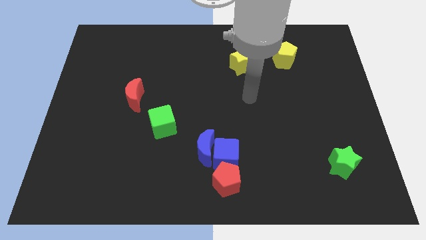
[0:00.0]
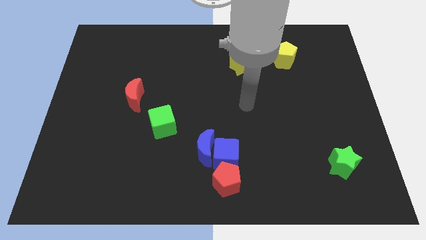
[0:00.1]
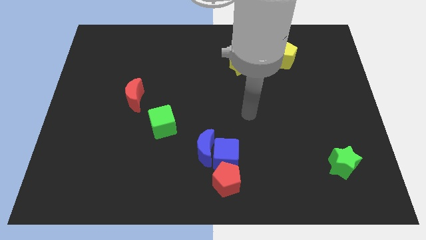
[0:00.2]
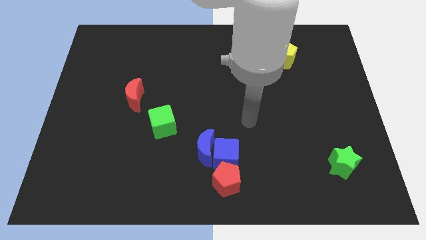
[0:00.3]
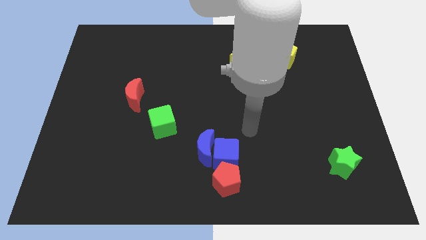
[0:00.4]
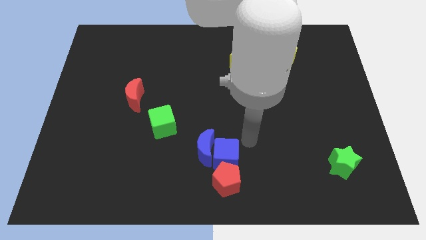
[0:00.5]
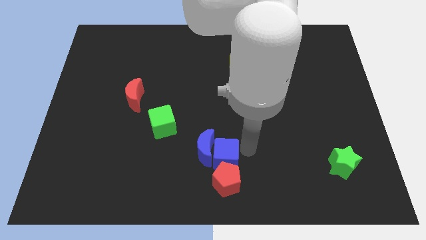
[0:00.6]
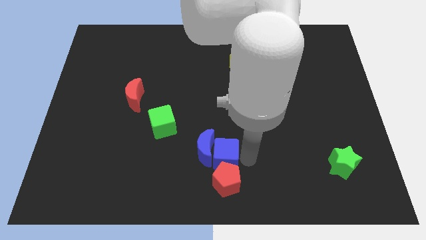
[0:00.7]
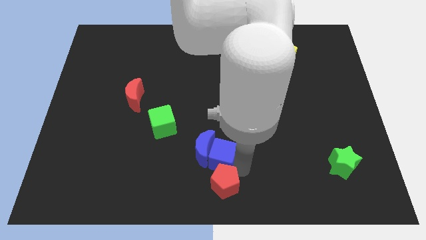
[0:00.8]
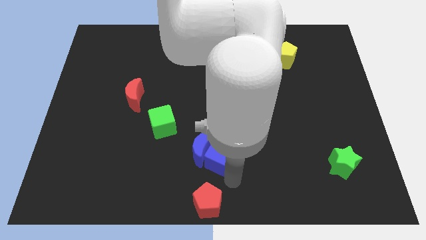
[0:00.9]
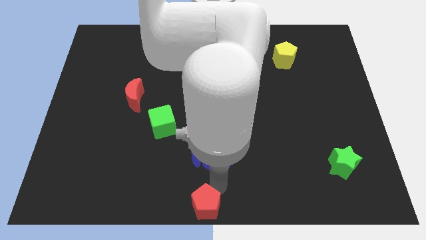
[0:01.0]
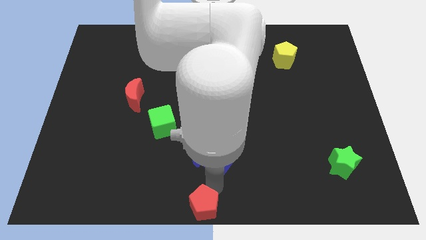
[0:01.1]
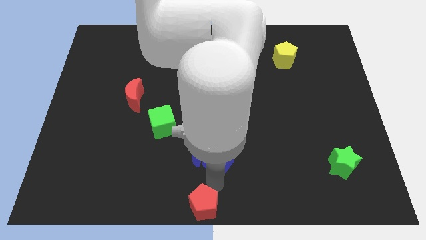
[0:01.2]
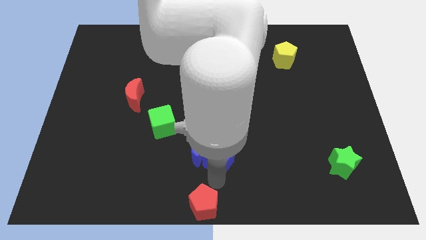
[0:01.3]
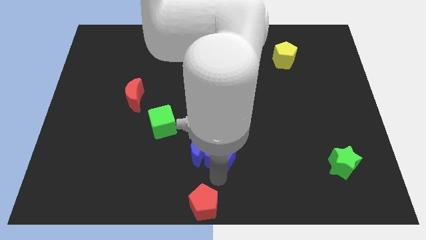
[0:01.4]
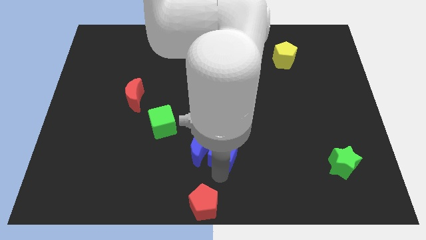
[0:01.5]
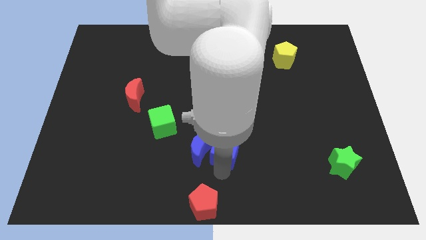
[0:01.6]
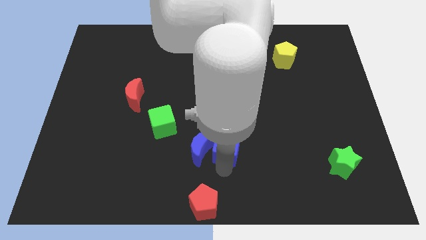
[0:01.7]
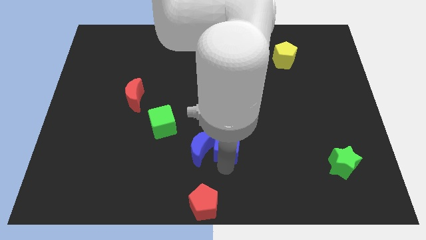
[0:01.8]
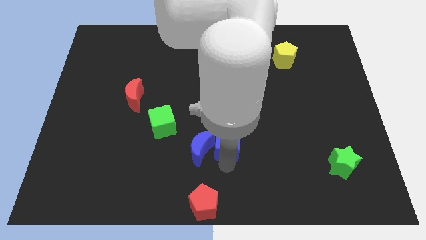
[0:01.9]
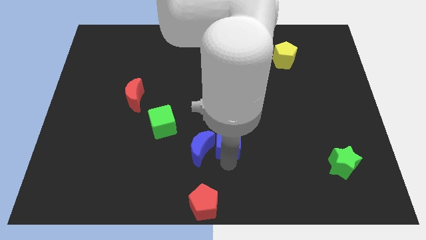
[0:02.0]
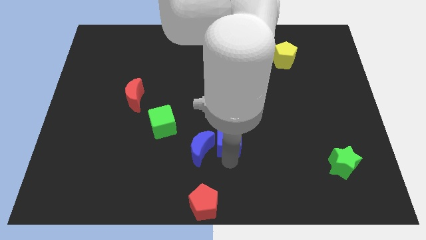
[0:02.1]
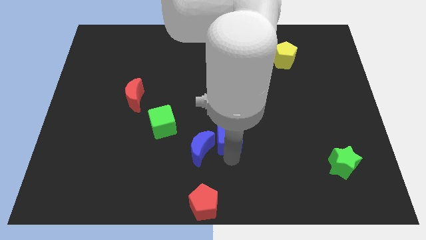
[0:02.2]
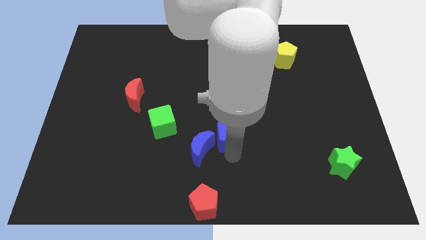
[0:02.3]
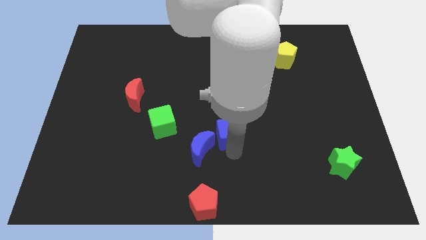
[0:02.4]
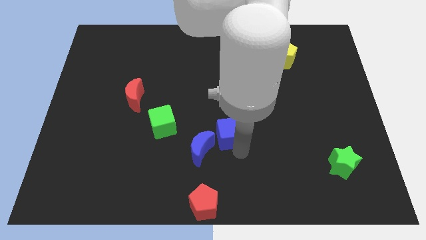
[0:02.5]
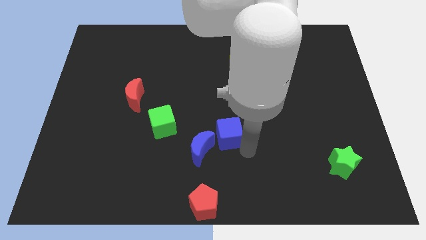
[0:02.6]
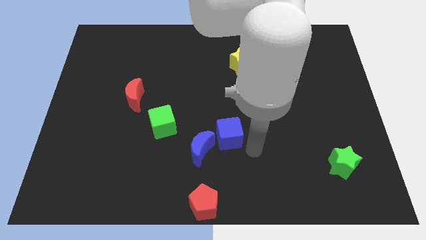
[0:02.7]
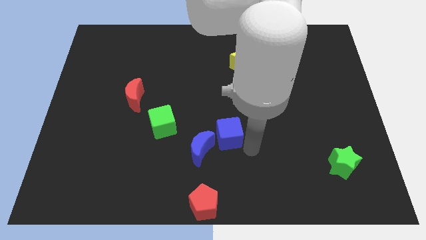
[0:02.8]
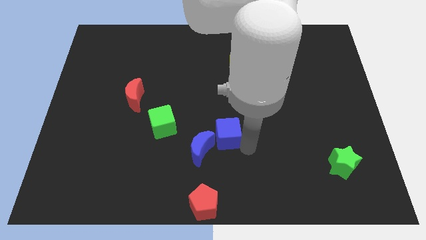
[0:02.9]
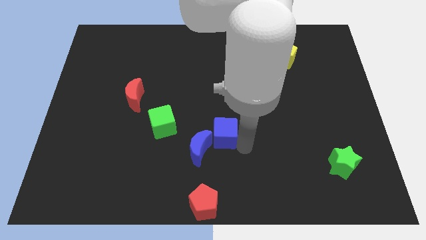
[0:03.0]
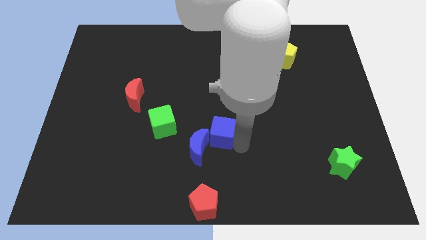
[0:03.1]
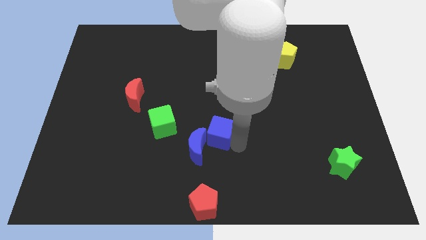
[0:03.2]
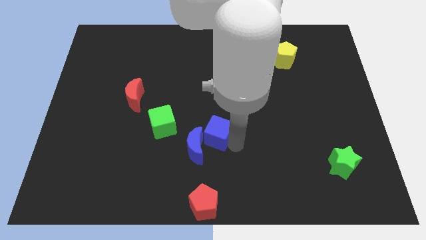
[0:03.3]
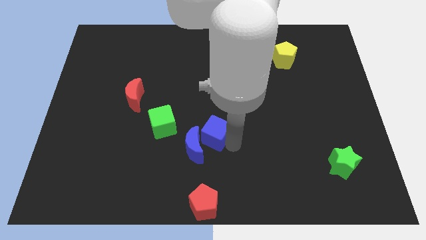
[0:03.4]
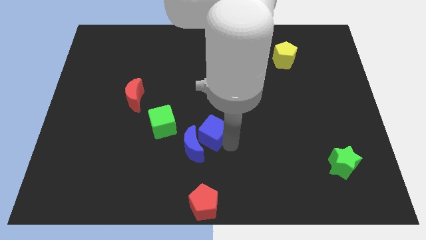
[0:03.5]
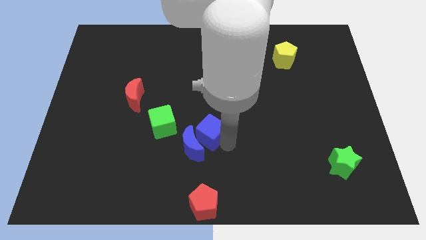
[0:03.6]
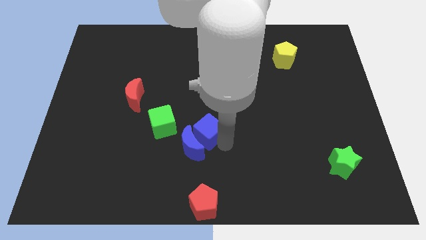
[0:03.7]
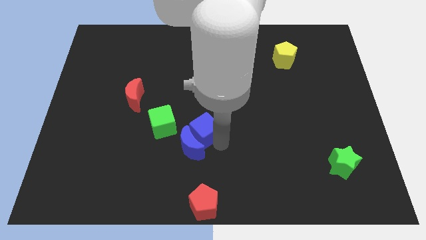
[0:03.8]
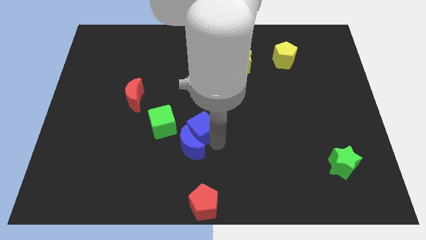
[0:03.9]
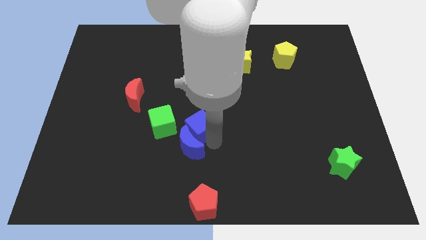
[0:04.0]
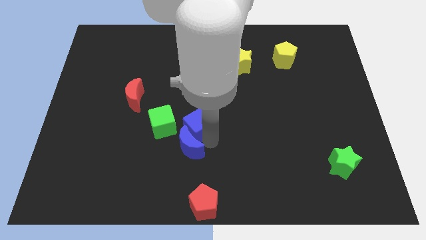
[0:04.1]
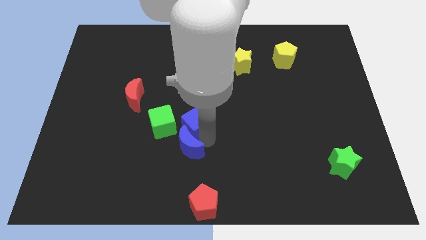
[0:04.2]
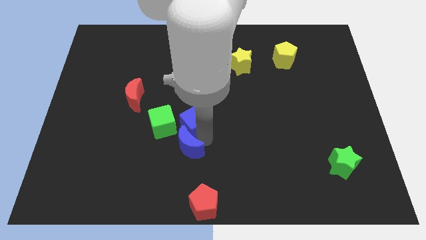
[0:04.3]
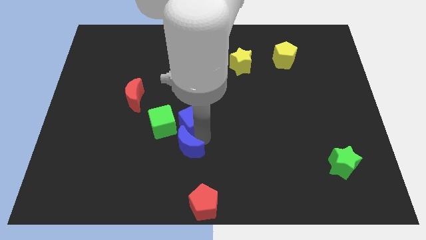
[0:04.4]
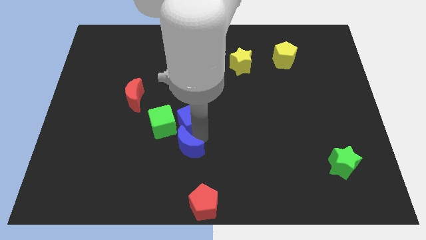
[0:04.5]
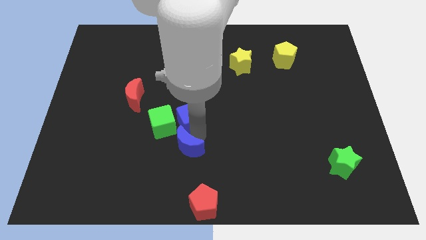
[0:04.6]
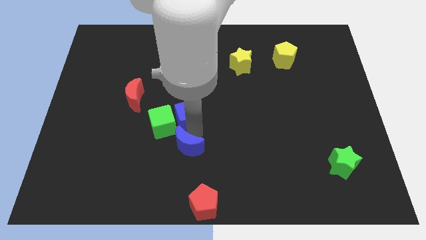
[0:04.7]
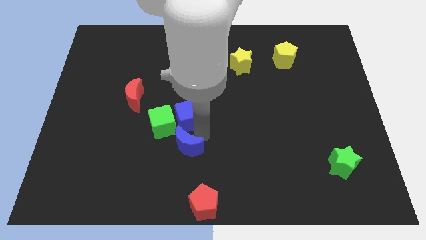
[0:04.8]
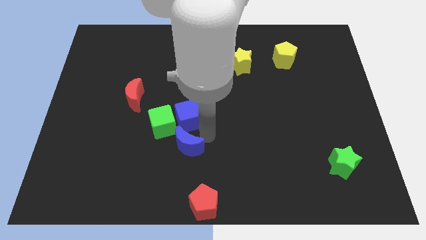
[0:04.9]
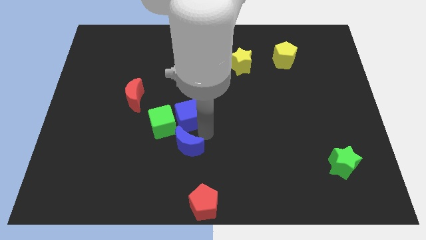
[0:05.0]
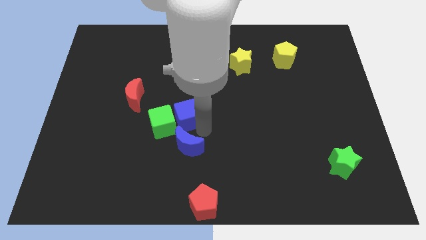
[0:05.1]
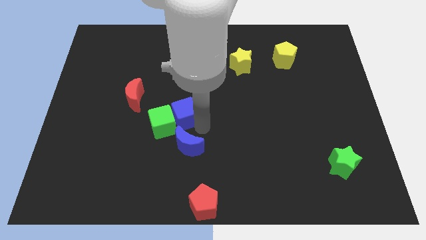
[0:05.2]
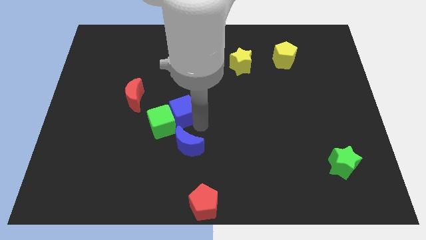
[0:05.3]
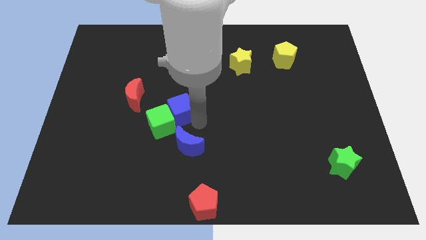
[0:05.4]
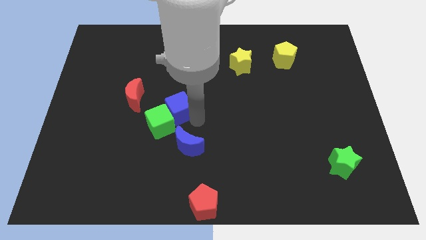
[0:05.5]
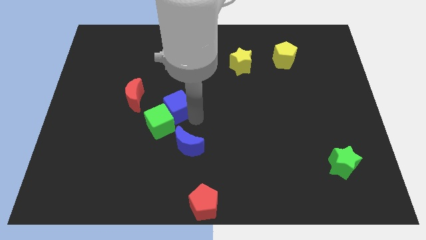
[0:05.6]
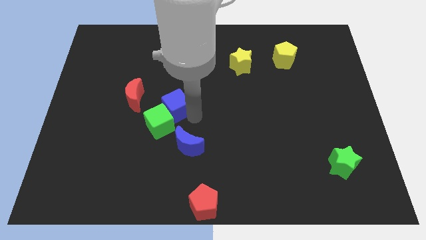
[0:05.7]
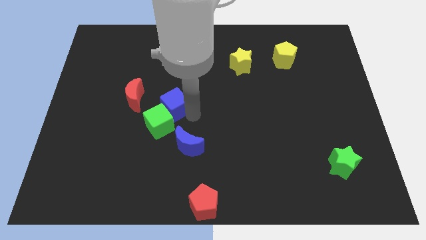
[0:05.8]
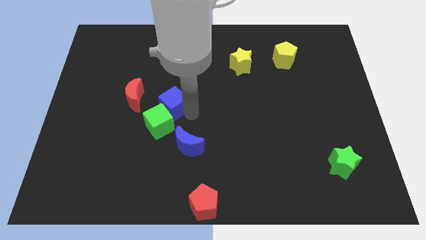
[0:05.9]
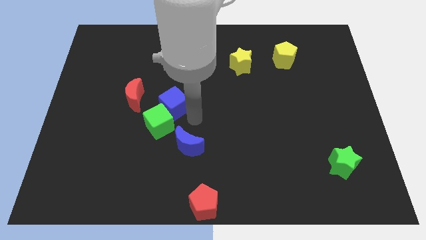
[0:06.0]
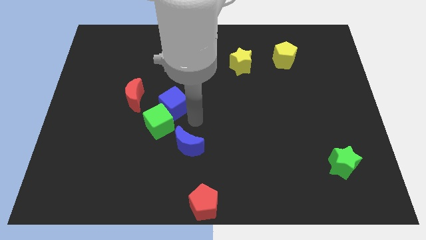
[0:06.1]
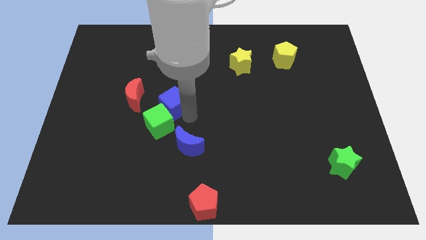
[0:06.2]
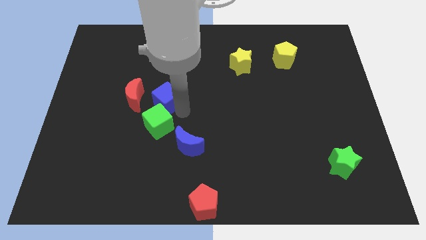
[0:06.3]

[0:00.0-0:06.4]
move the blue cube up and left diagonally

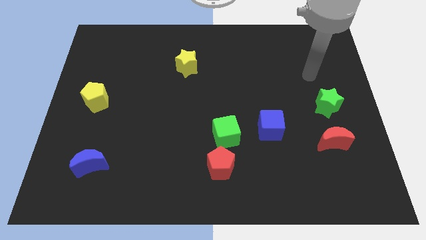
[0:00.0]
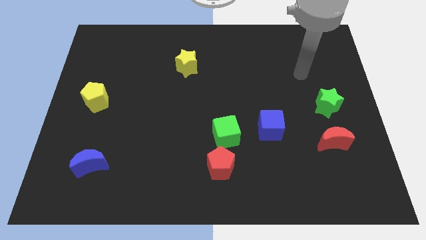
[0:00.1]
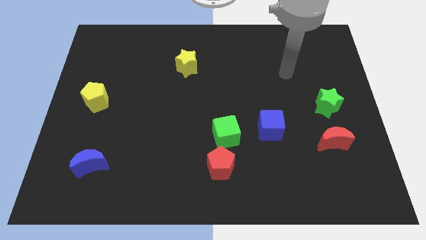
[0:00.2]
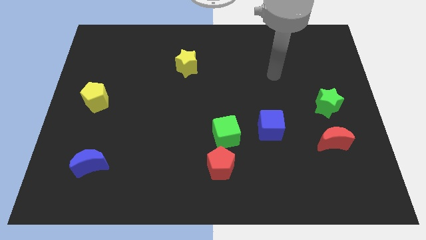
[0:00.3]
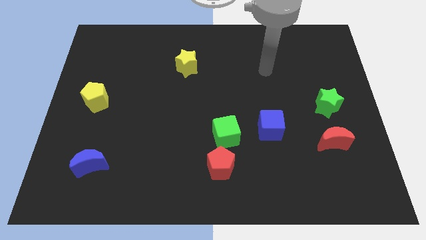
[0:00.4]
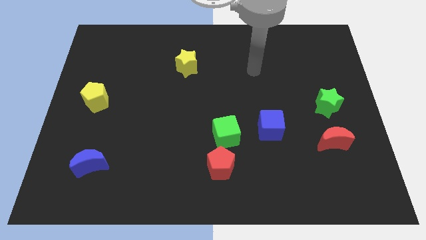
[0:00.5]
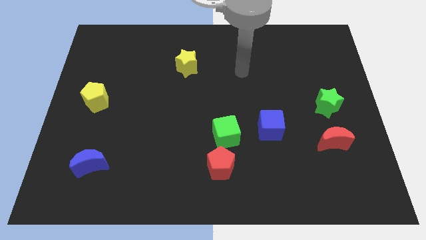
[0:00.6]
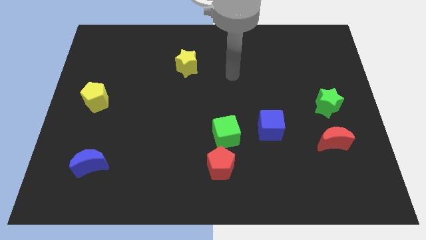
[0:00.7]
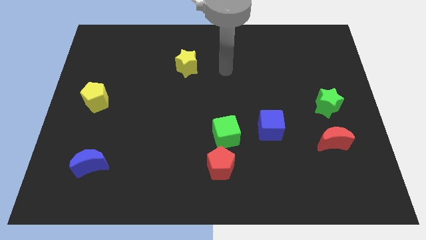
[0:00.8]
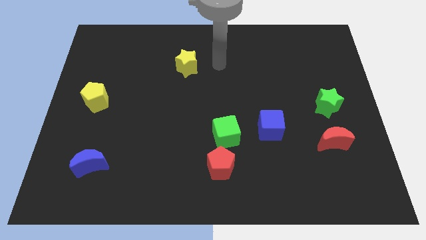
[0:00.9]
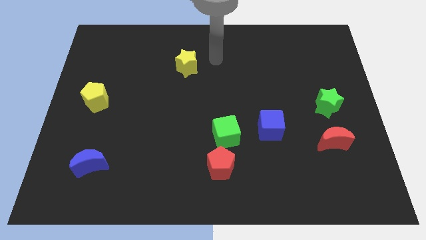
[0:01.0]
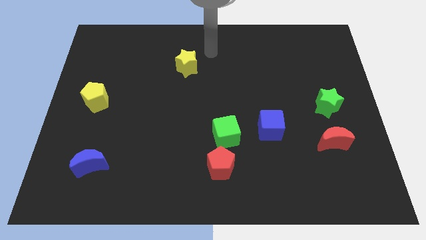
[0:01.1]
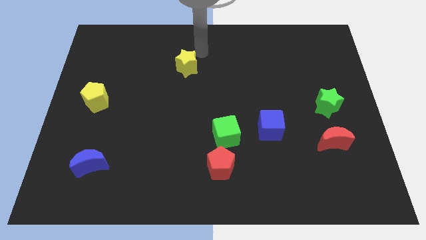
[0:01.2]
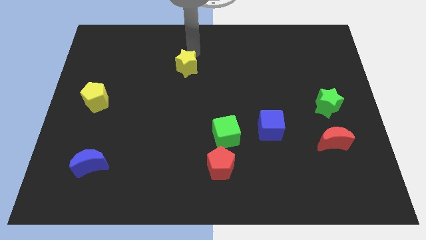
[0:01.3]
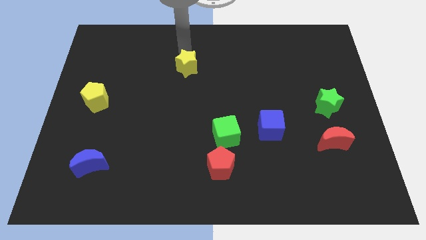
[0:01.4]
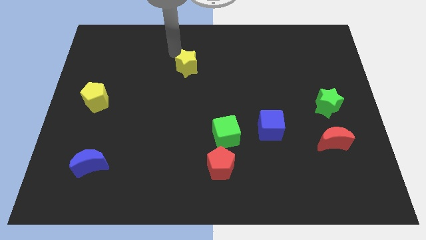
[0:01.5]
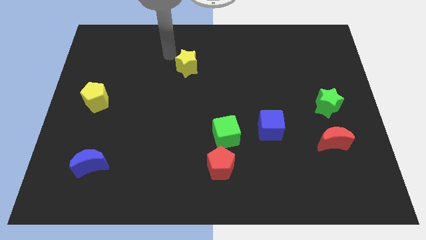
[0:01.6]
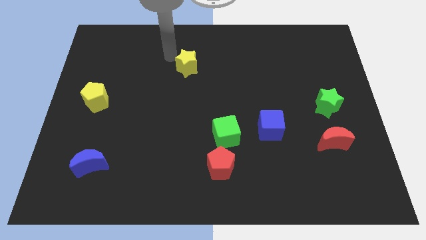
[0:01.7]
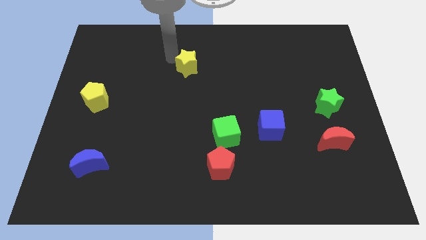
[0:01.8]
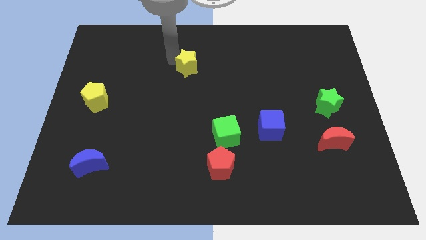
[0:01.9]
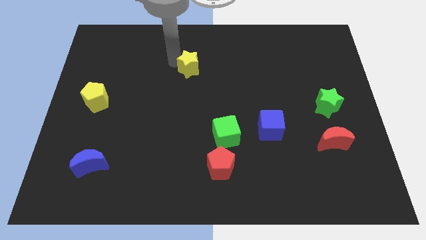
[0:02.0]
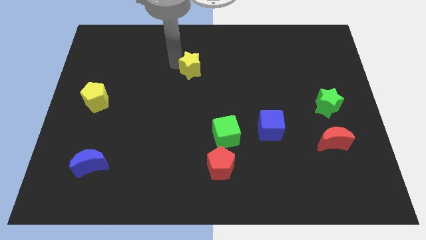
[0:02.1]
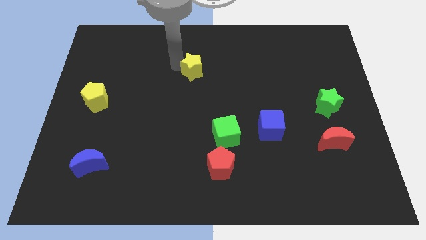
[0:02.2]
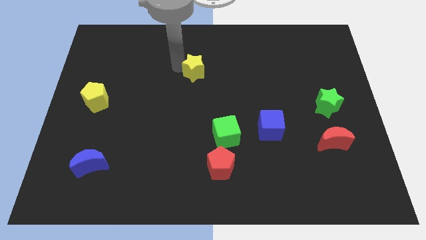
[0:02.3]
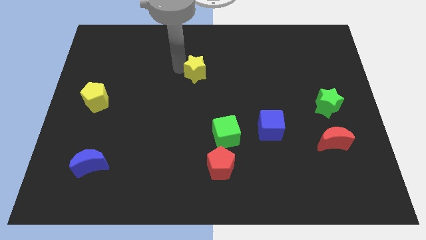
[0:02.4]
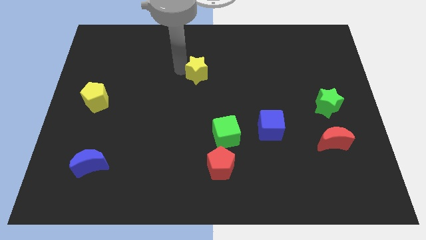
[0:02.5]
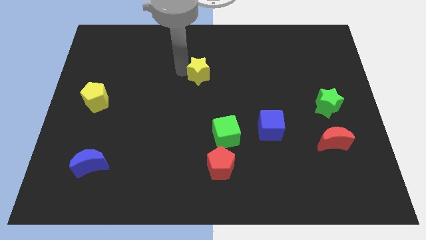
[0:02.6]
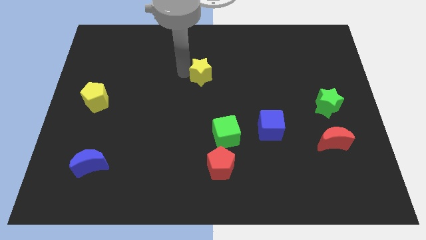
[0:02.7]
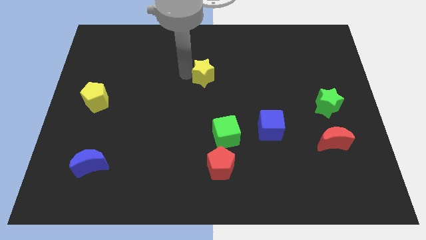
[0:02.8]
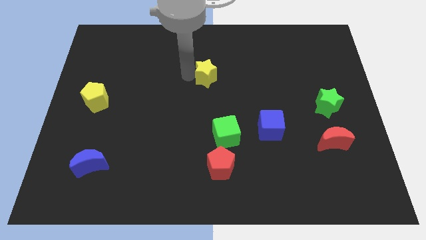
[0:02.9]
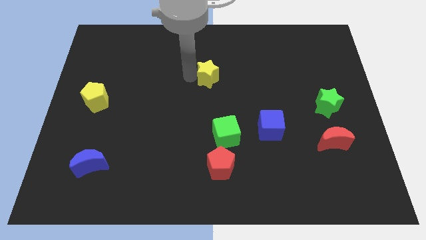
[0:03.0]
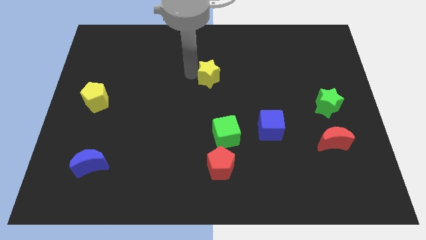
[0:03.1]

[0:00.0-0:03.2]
slightly push the yellow star downwards and to the right
